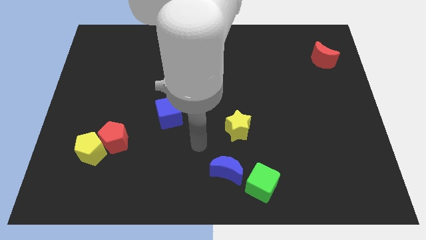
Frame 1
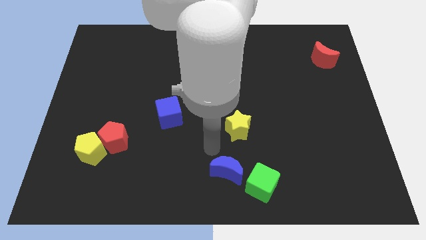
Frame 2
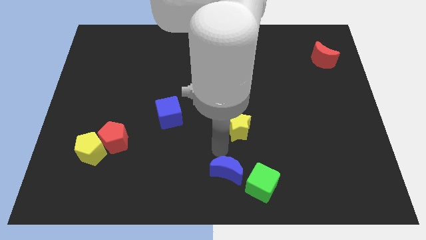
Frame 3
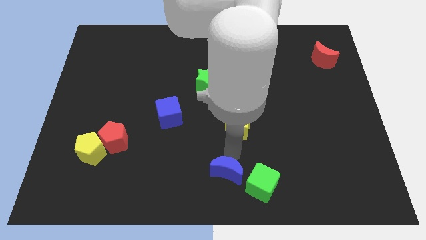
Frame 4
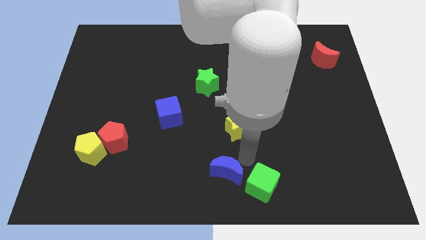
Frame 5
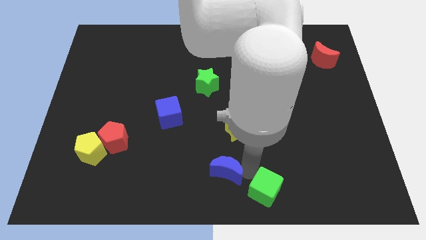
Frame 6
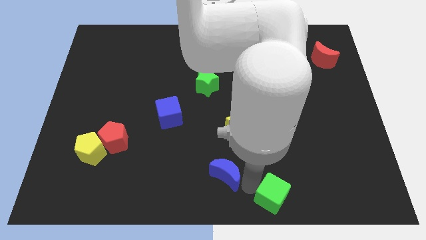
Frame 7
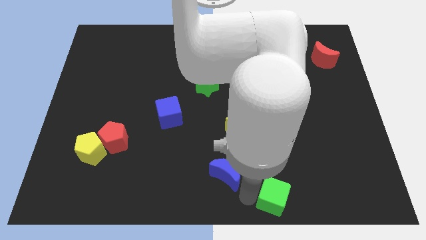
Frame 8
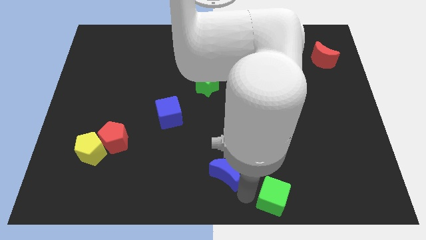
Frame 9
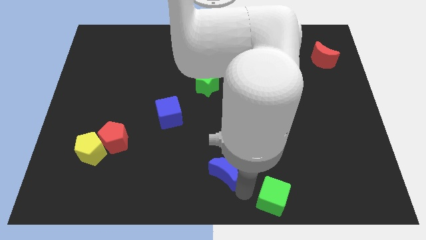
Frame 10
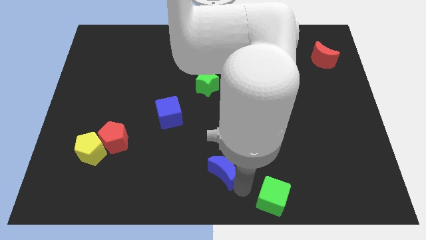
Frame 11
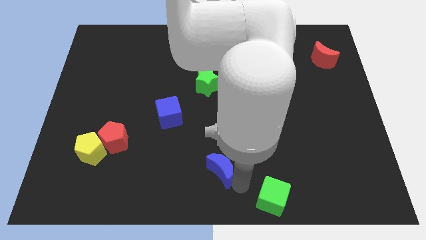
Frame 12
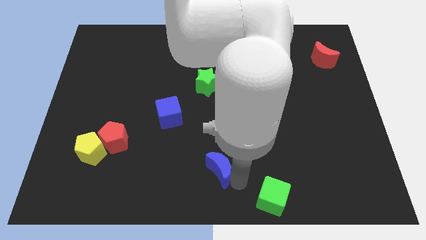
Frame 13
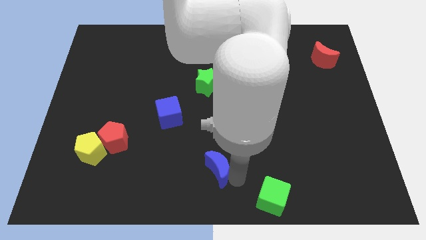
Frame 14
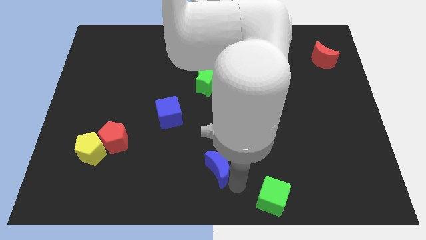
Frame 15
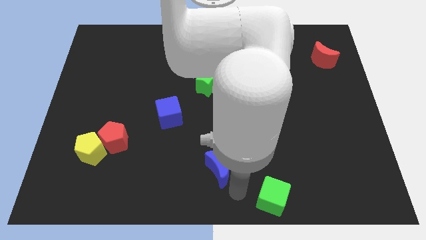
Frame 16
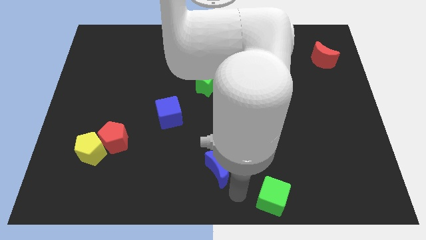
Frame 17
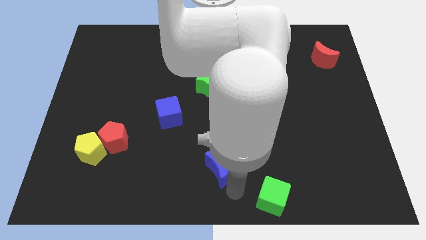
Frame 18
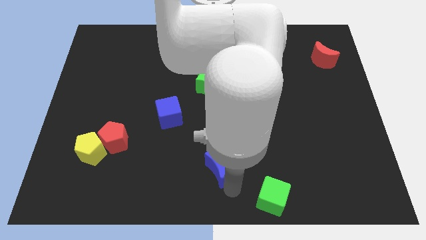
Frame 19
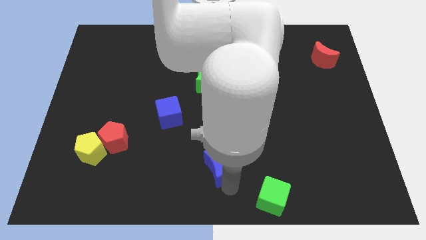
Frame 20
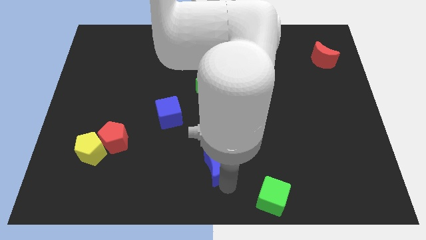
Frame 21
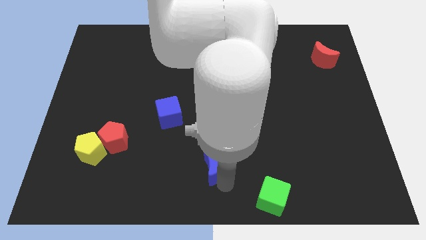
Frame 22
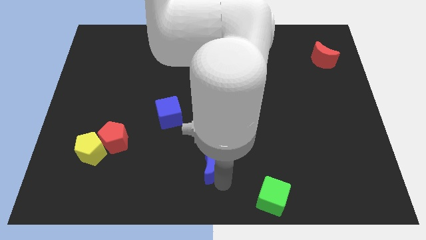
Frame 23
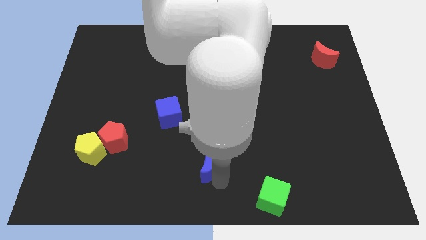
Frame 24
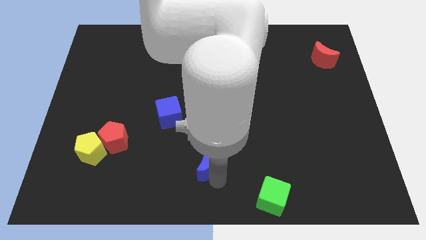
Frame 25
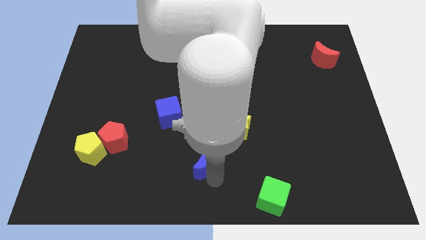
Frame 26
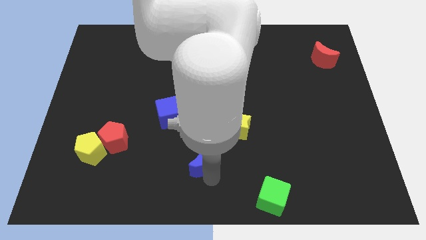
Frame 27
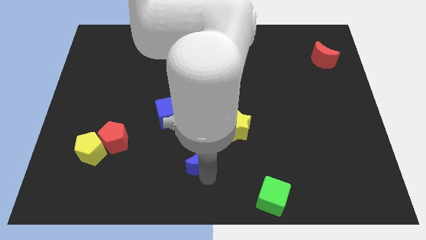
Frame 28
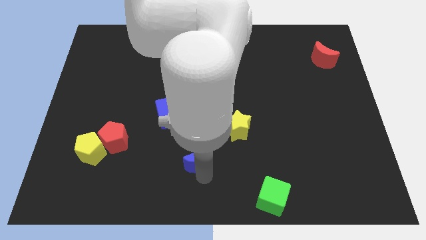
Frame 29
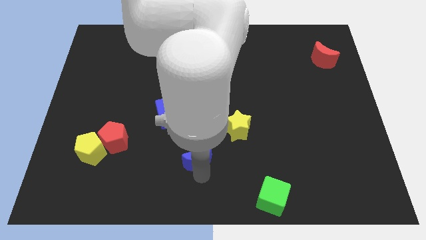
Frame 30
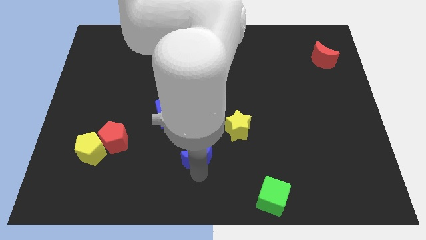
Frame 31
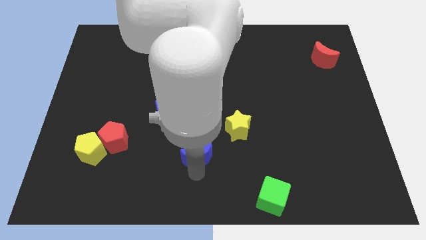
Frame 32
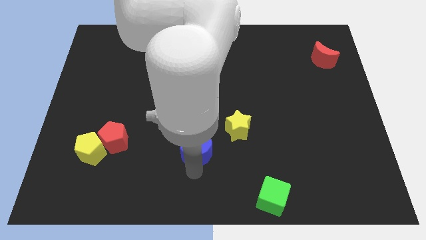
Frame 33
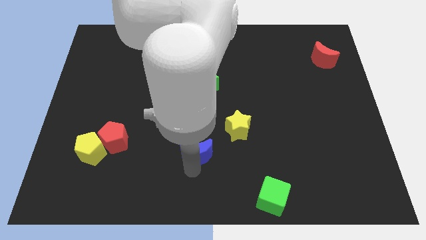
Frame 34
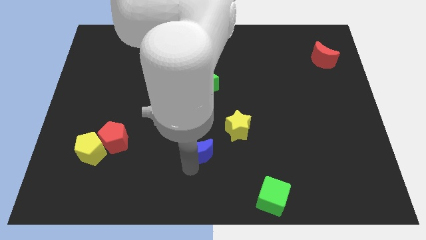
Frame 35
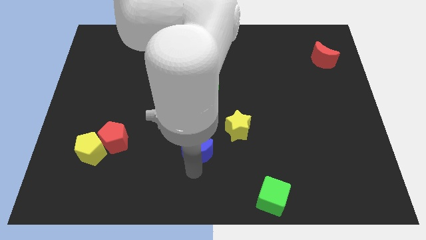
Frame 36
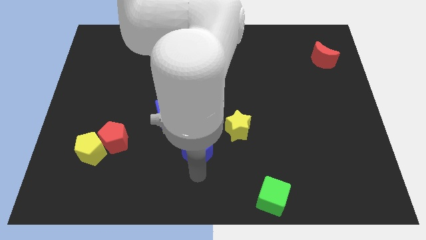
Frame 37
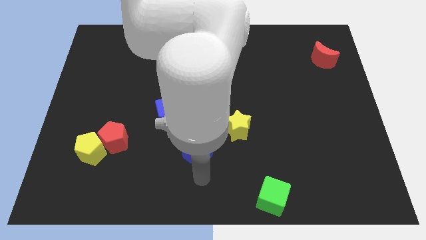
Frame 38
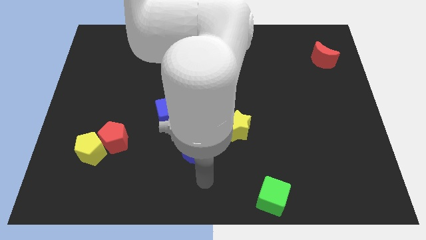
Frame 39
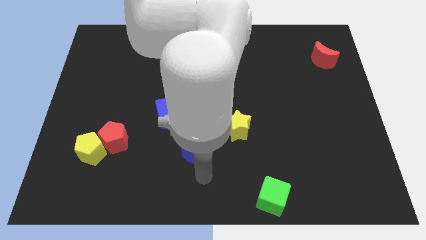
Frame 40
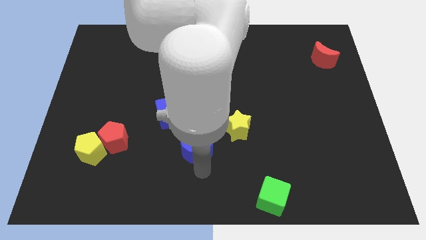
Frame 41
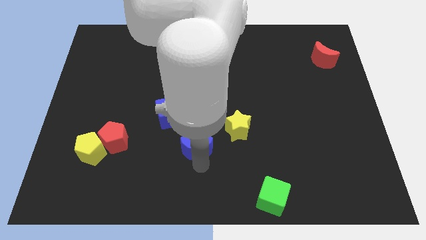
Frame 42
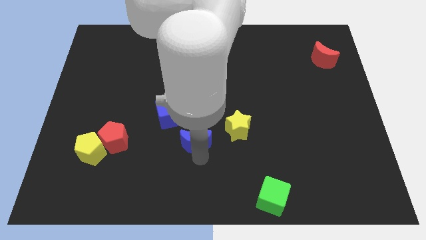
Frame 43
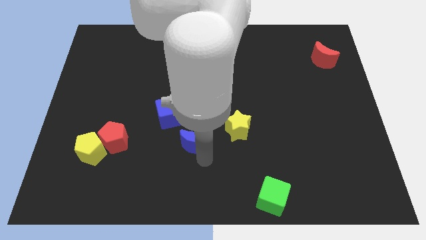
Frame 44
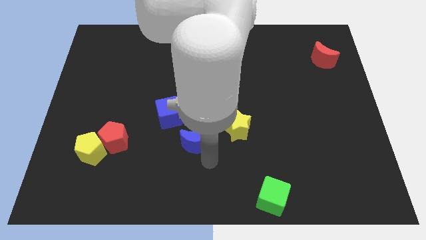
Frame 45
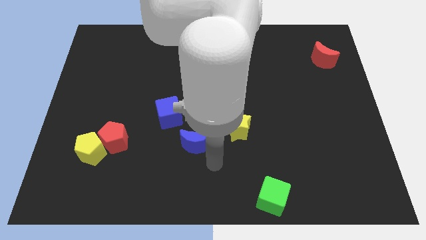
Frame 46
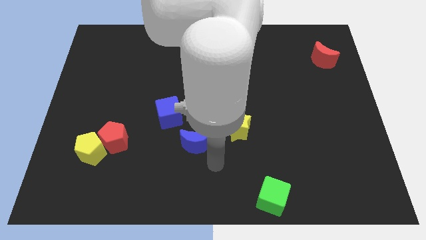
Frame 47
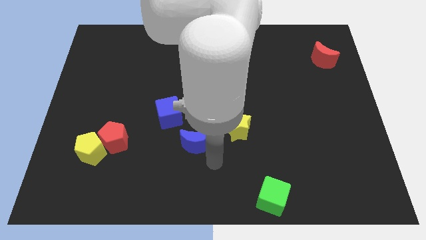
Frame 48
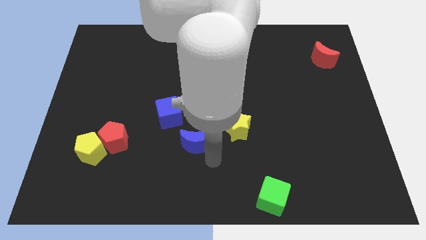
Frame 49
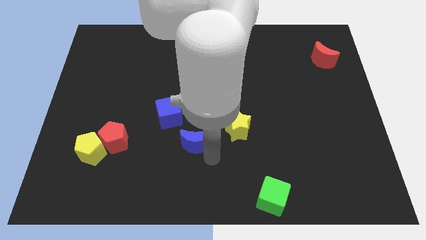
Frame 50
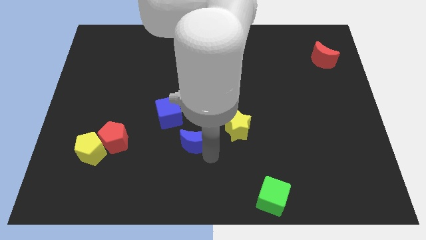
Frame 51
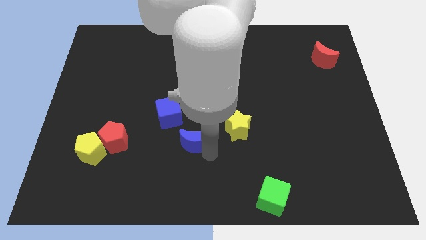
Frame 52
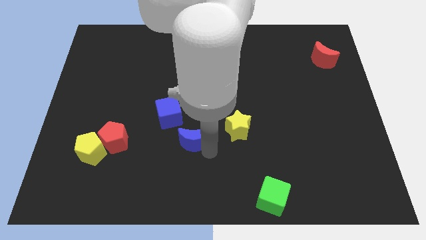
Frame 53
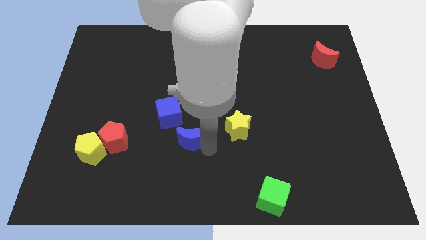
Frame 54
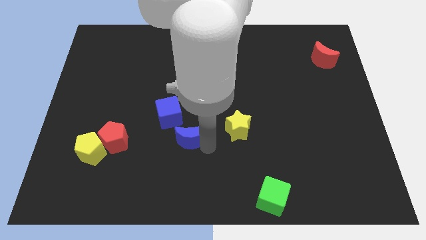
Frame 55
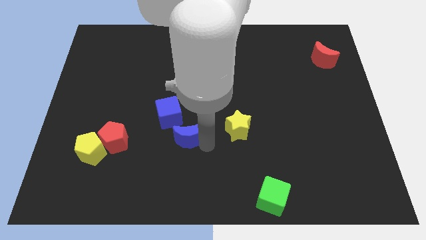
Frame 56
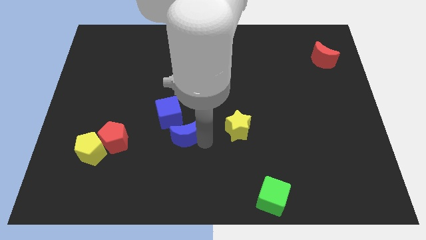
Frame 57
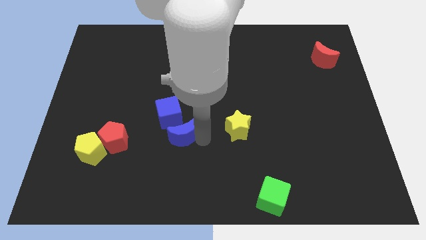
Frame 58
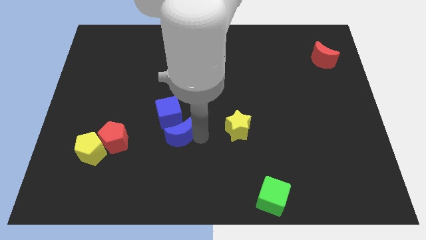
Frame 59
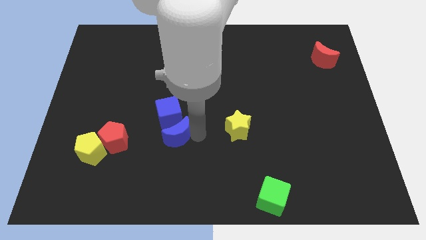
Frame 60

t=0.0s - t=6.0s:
put the blue moon towards the blue cube

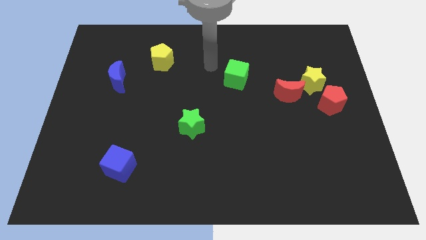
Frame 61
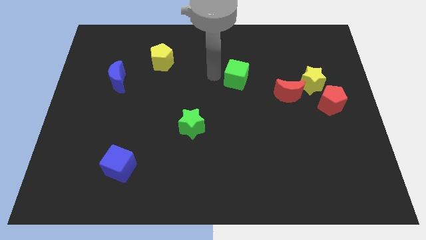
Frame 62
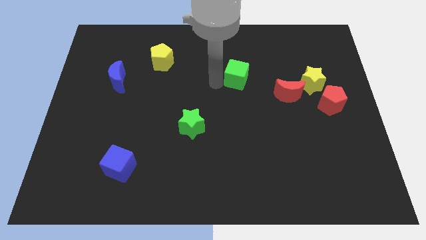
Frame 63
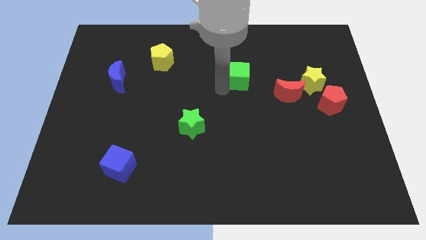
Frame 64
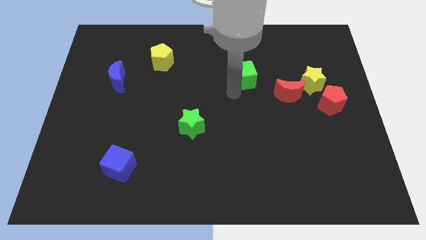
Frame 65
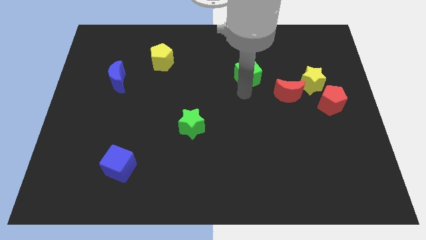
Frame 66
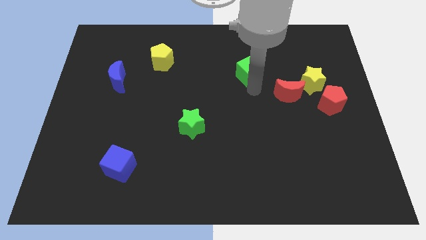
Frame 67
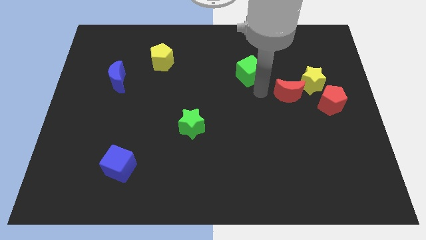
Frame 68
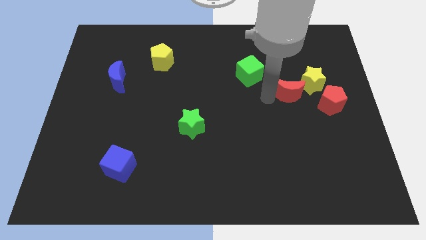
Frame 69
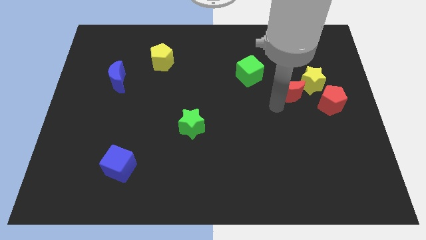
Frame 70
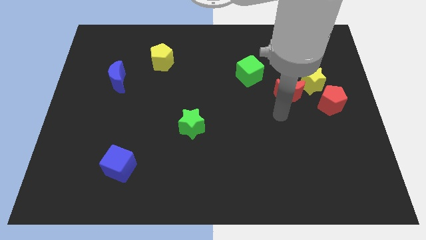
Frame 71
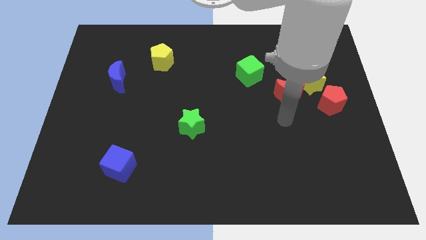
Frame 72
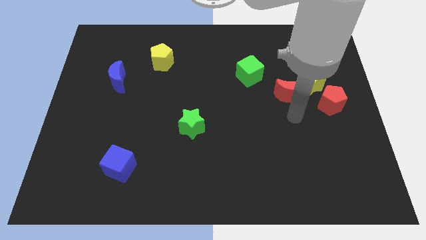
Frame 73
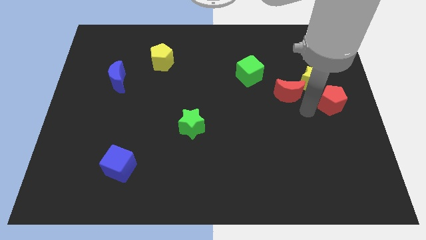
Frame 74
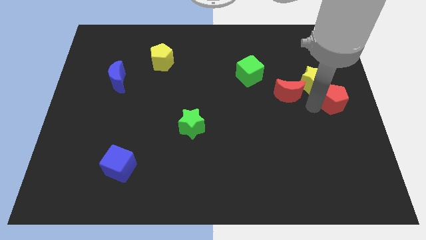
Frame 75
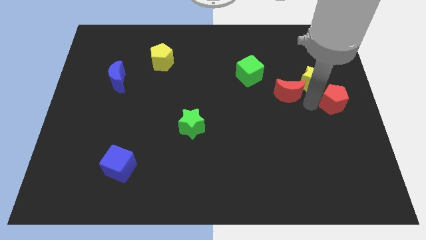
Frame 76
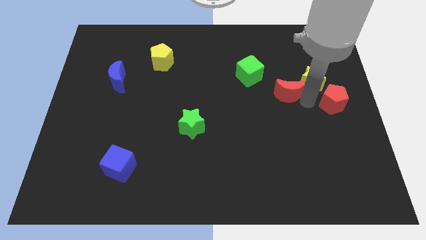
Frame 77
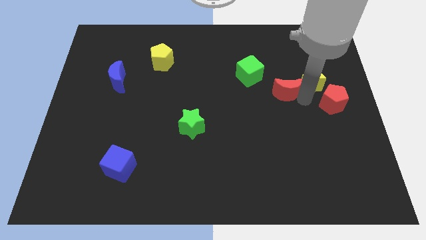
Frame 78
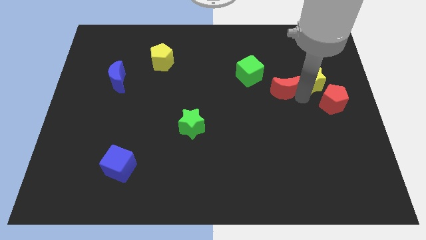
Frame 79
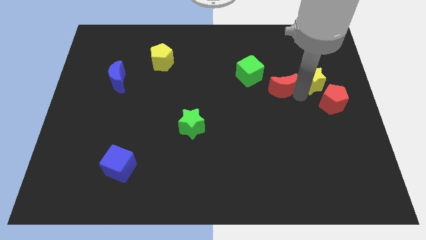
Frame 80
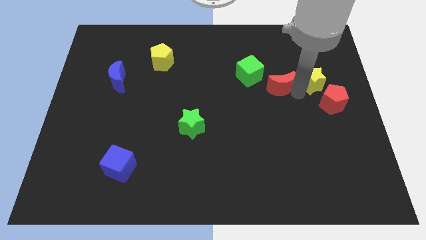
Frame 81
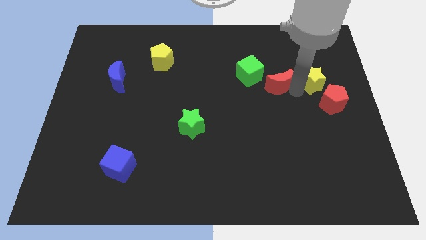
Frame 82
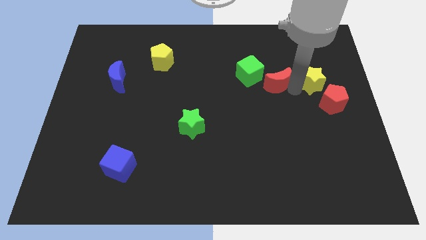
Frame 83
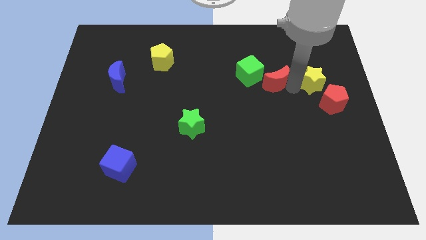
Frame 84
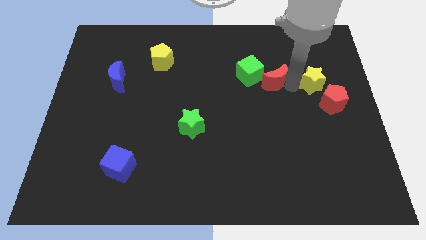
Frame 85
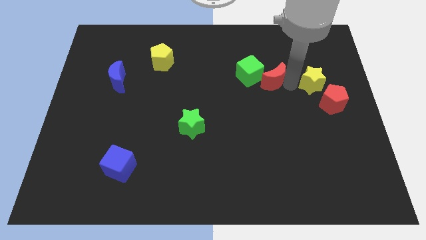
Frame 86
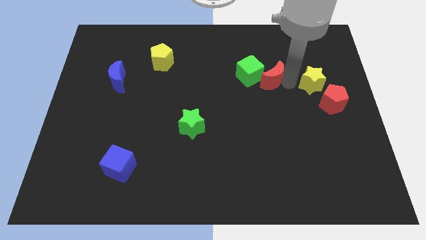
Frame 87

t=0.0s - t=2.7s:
push the red moon towards the green cube
